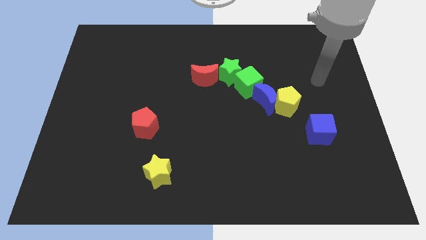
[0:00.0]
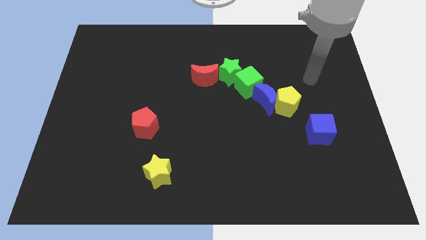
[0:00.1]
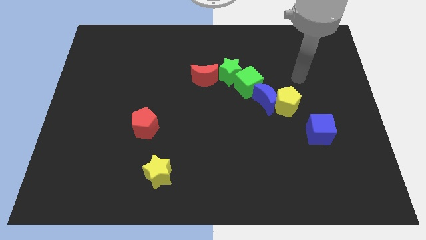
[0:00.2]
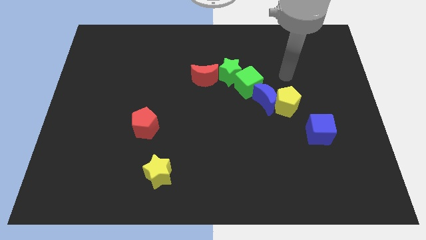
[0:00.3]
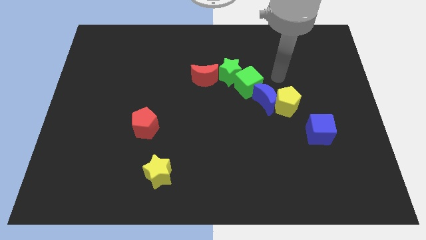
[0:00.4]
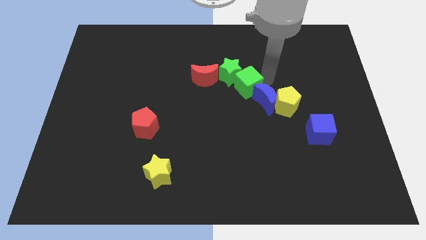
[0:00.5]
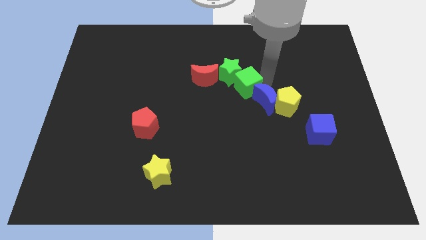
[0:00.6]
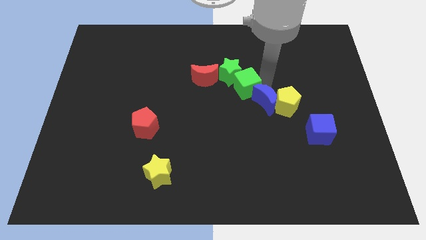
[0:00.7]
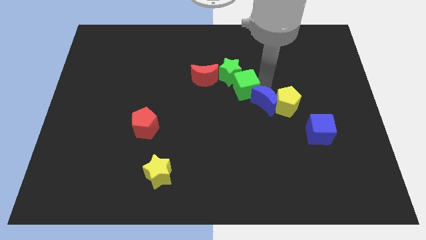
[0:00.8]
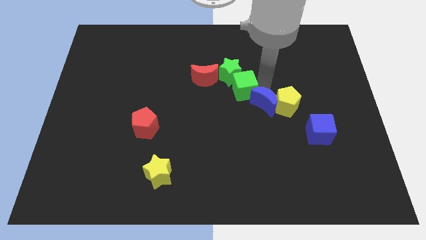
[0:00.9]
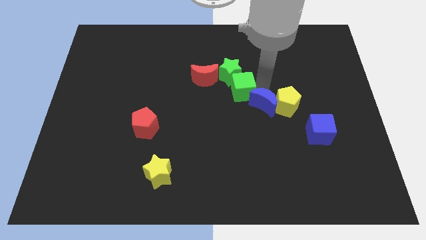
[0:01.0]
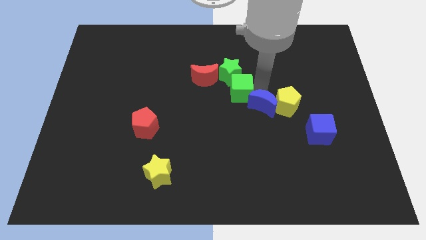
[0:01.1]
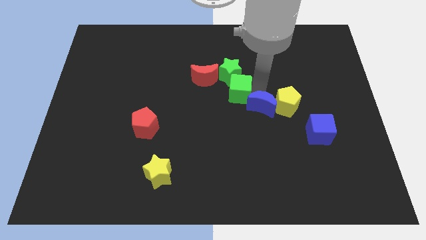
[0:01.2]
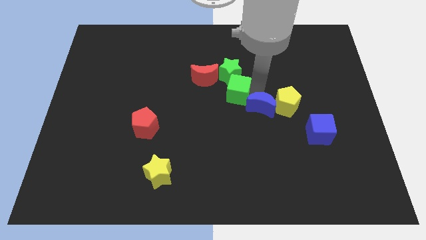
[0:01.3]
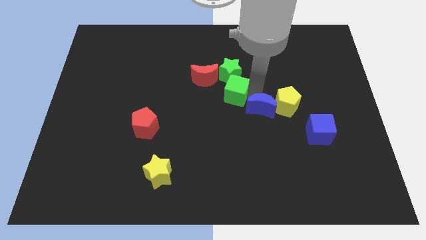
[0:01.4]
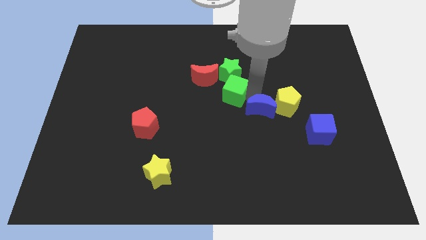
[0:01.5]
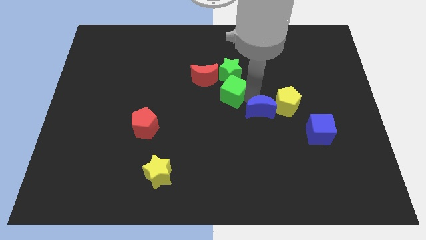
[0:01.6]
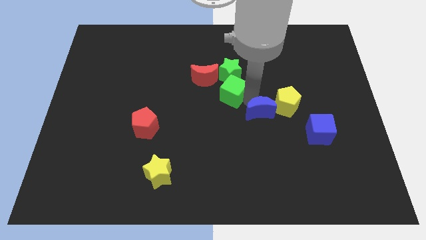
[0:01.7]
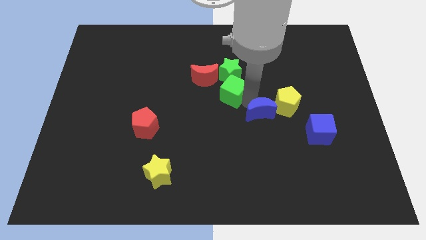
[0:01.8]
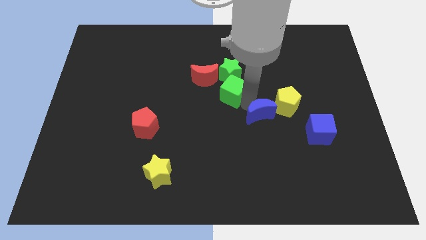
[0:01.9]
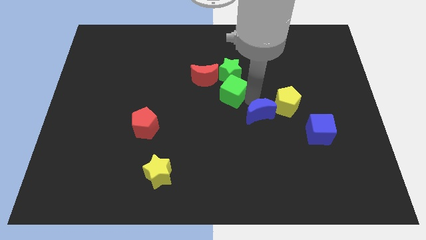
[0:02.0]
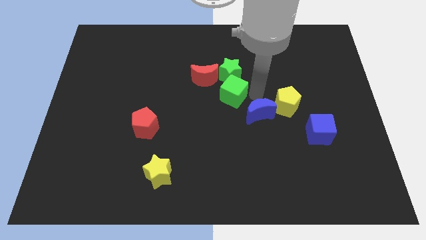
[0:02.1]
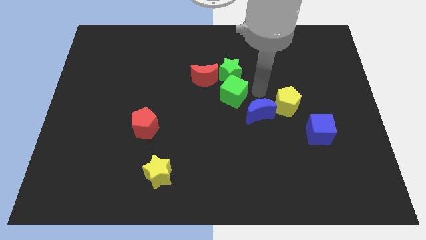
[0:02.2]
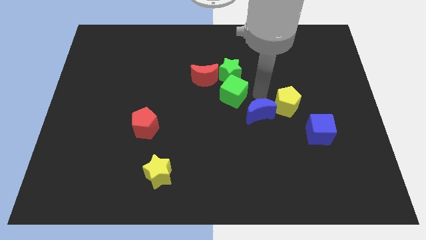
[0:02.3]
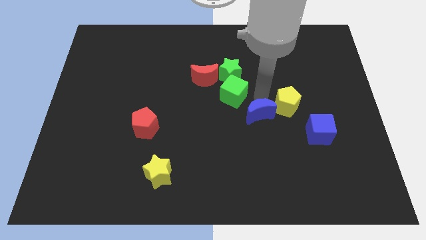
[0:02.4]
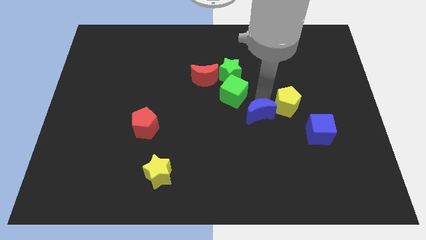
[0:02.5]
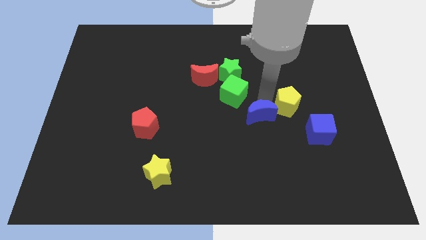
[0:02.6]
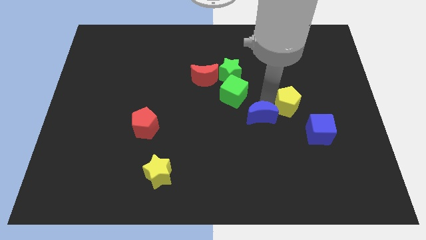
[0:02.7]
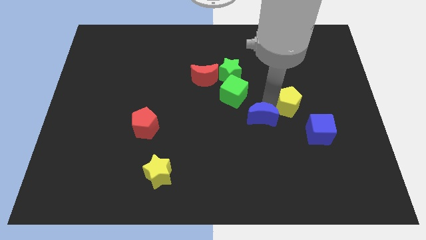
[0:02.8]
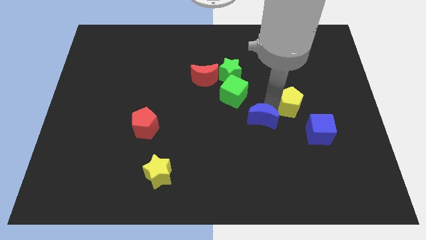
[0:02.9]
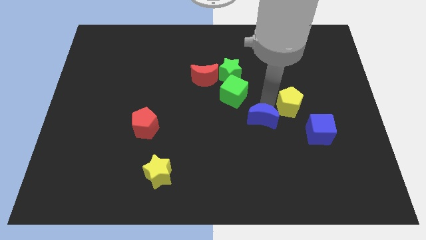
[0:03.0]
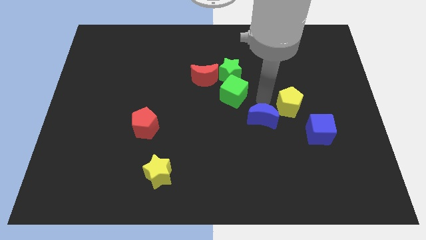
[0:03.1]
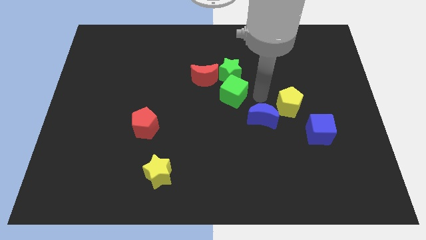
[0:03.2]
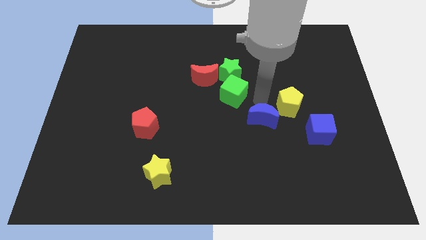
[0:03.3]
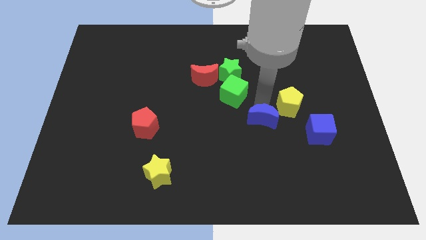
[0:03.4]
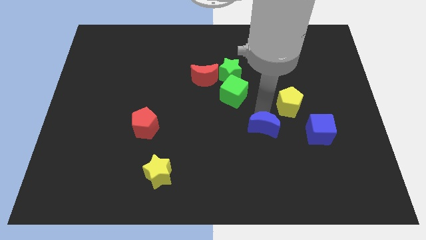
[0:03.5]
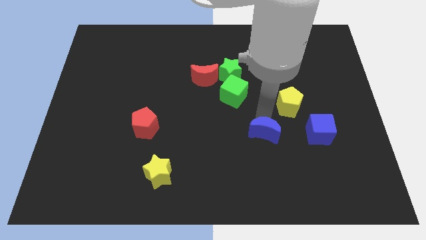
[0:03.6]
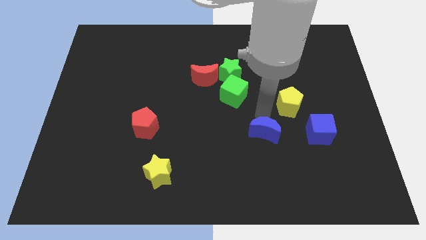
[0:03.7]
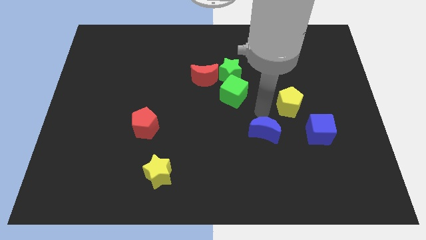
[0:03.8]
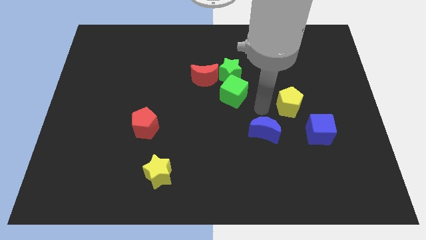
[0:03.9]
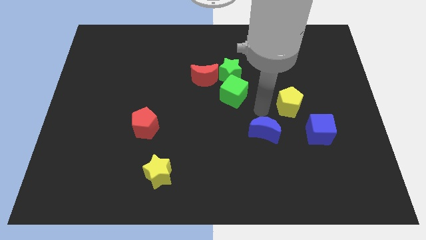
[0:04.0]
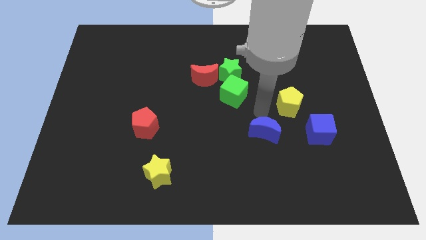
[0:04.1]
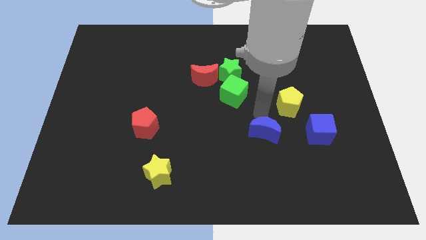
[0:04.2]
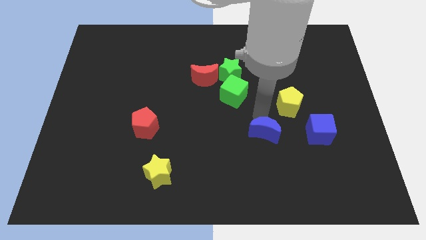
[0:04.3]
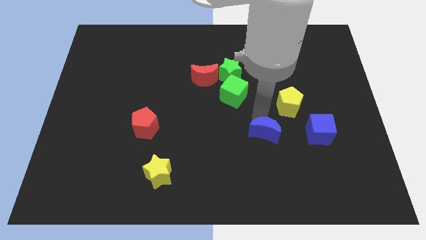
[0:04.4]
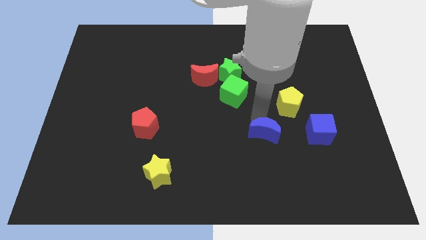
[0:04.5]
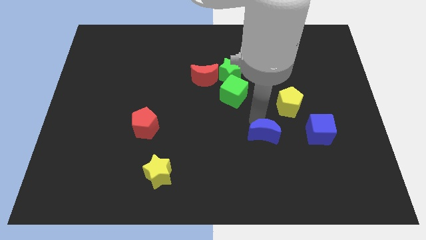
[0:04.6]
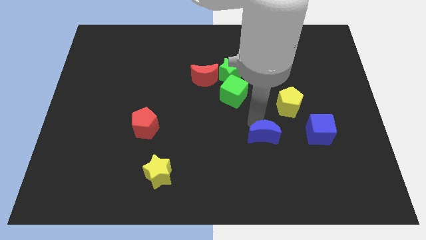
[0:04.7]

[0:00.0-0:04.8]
separate the blue moon from the yellow pentagon and green cube

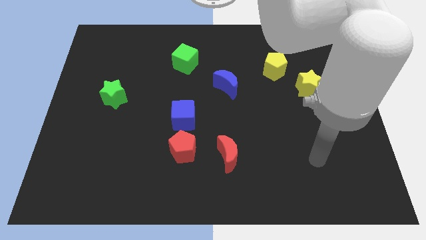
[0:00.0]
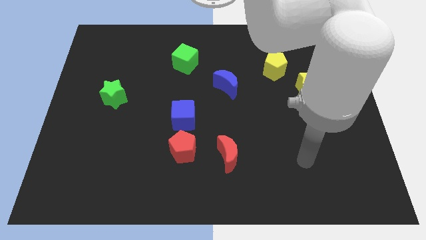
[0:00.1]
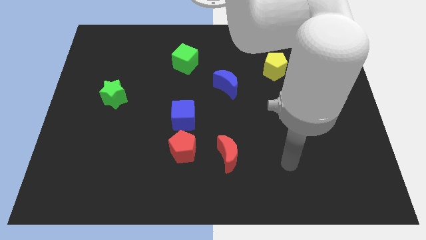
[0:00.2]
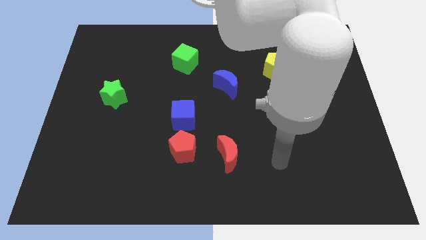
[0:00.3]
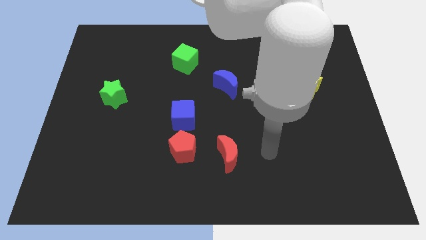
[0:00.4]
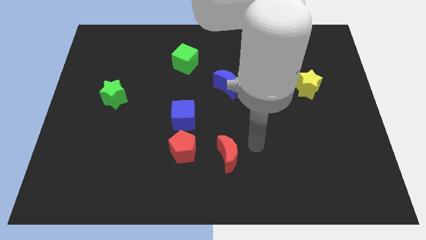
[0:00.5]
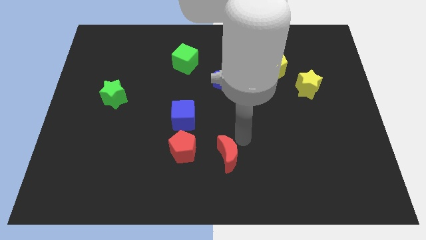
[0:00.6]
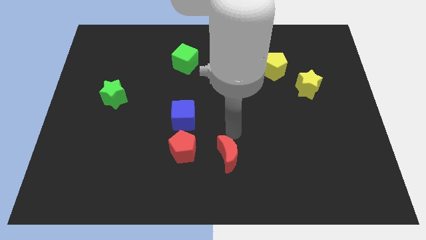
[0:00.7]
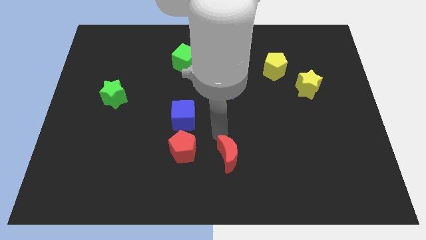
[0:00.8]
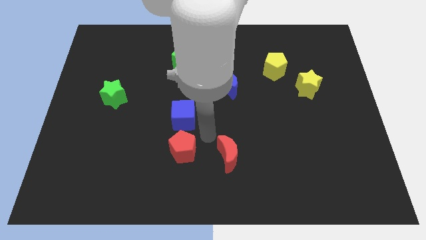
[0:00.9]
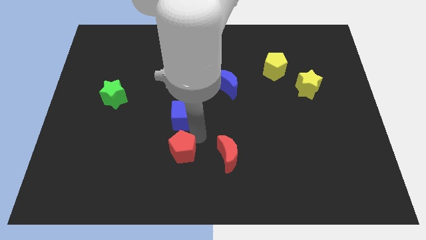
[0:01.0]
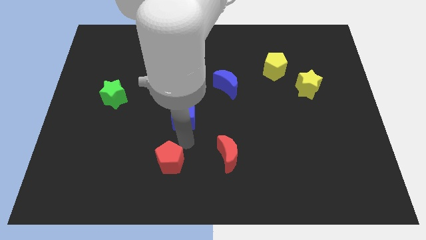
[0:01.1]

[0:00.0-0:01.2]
pull the blue cube apart from the red pentagon

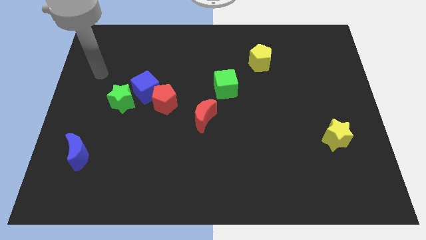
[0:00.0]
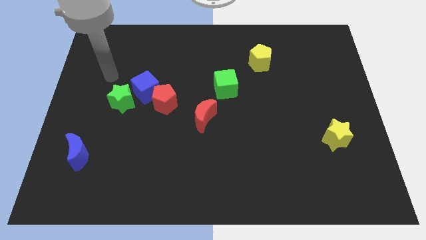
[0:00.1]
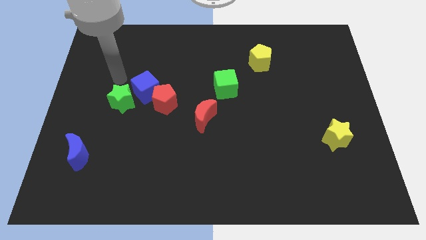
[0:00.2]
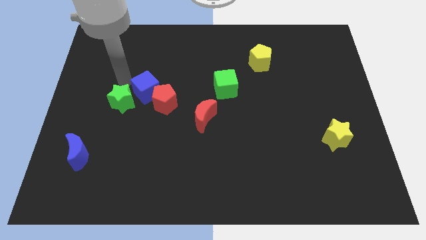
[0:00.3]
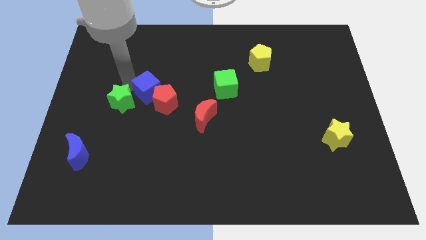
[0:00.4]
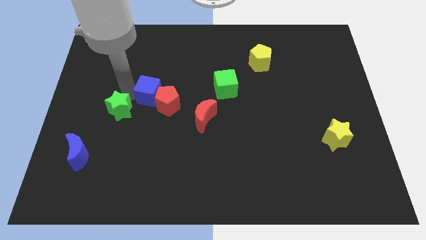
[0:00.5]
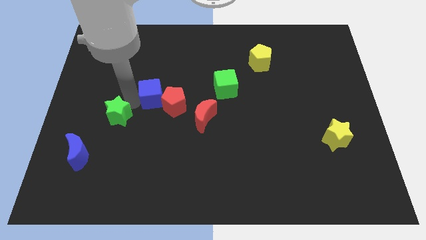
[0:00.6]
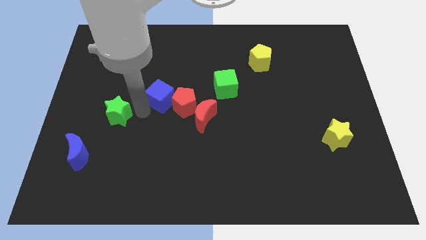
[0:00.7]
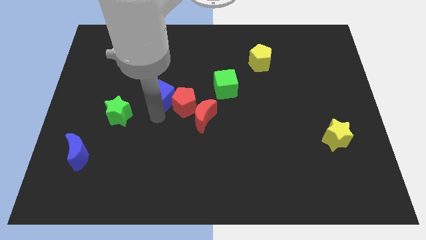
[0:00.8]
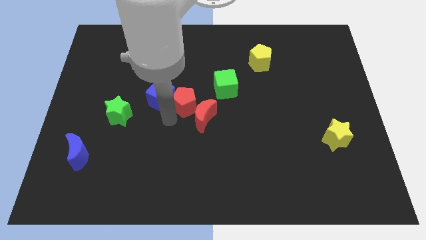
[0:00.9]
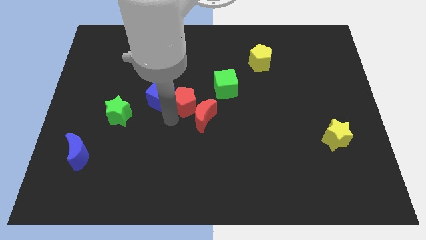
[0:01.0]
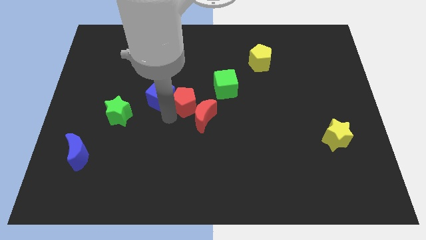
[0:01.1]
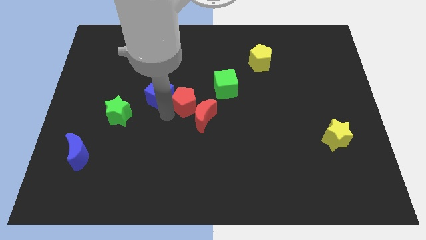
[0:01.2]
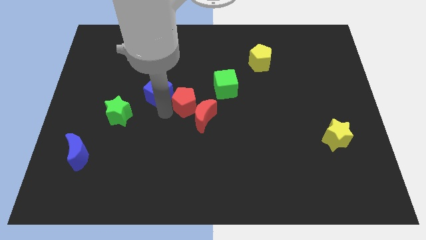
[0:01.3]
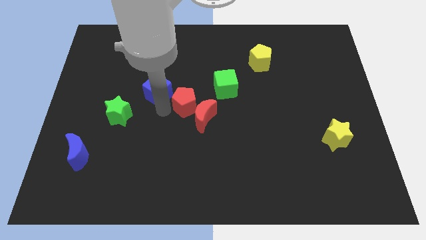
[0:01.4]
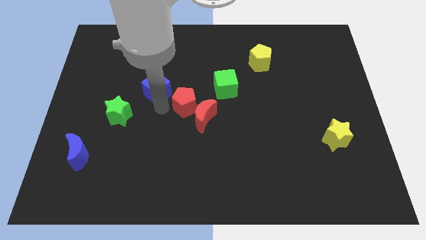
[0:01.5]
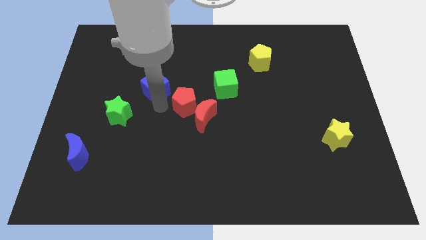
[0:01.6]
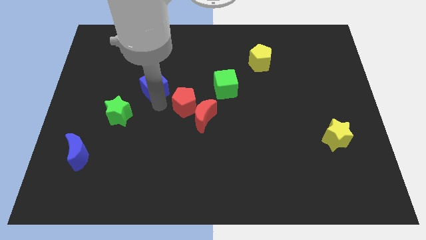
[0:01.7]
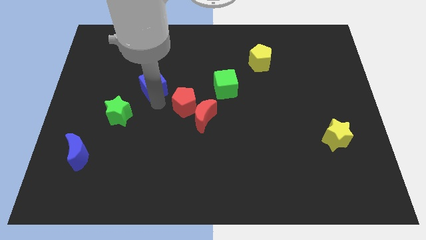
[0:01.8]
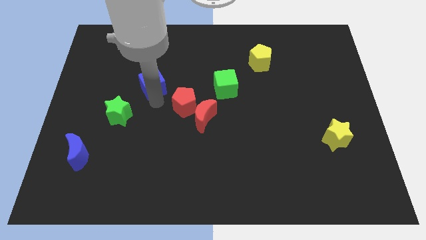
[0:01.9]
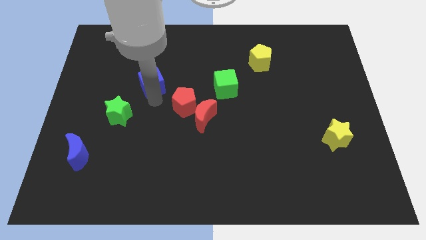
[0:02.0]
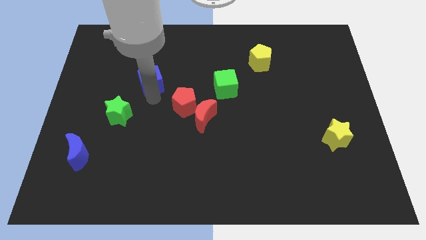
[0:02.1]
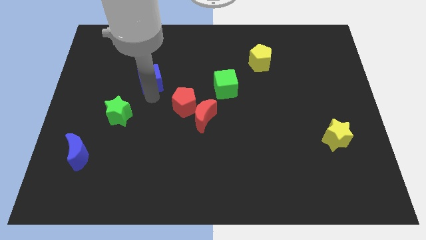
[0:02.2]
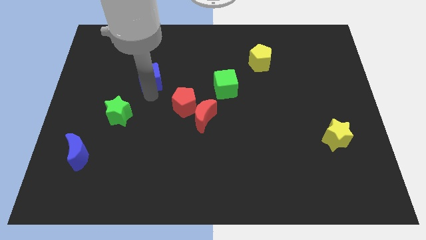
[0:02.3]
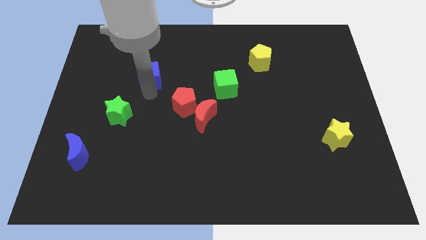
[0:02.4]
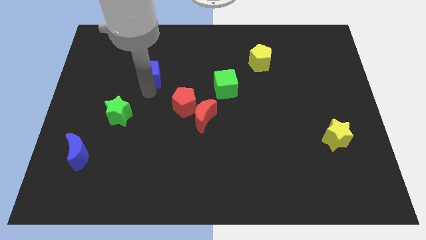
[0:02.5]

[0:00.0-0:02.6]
move the blue cube away from the red pentagon and green star

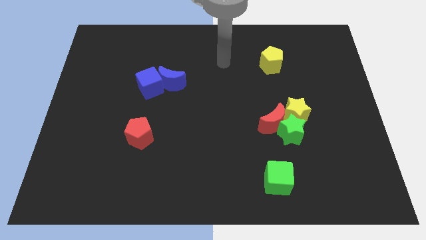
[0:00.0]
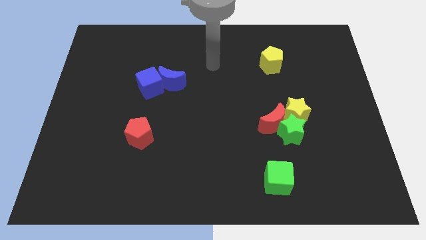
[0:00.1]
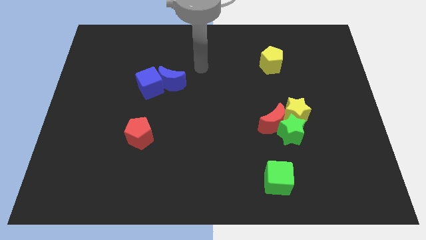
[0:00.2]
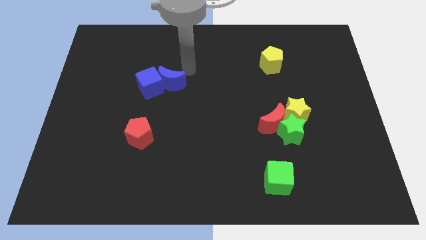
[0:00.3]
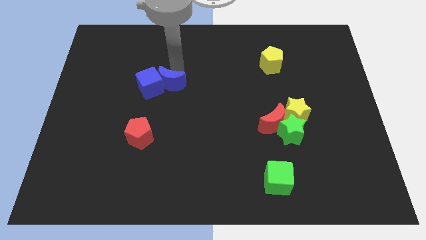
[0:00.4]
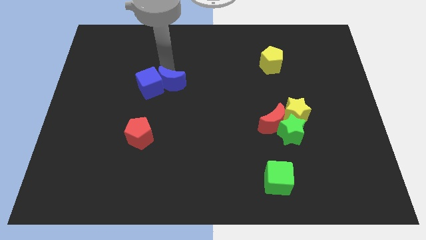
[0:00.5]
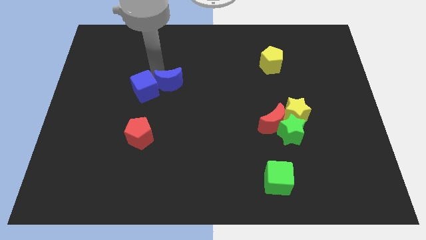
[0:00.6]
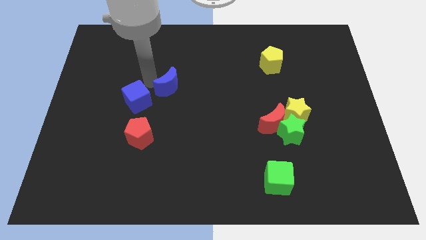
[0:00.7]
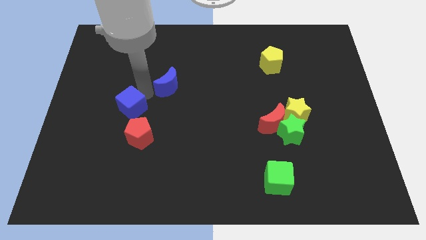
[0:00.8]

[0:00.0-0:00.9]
separate the blue moon from the blue cube
